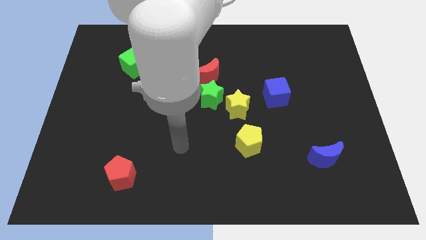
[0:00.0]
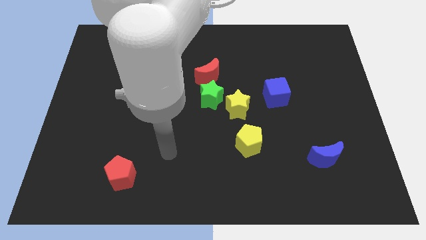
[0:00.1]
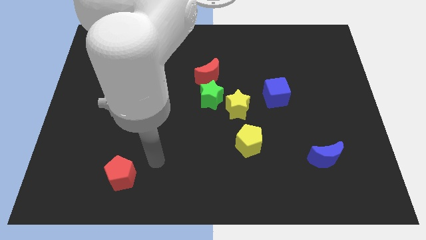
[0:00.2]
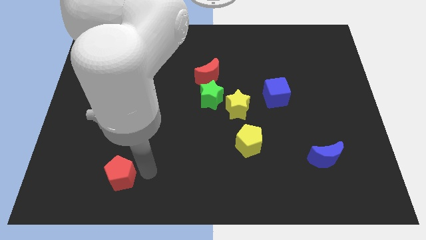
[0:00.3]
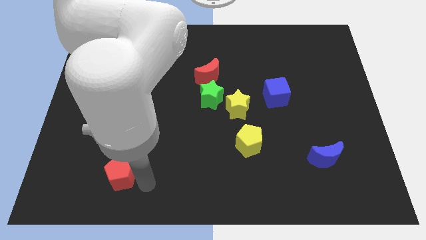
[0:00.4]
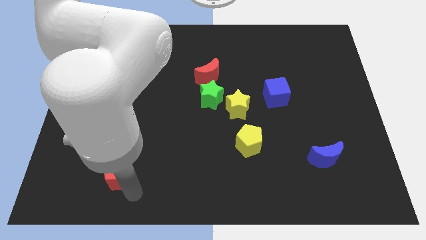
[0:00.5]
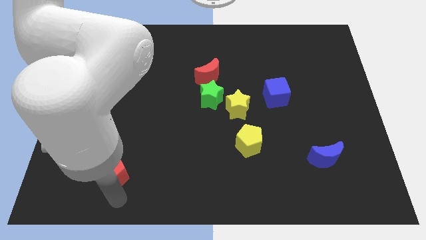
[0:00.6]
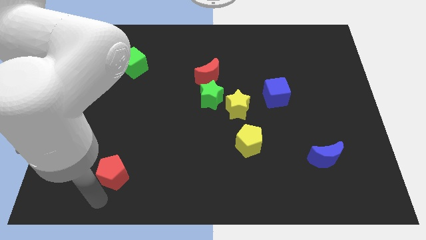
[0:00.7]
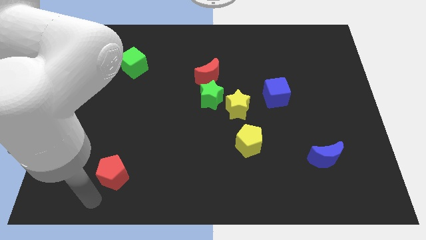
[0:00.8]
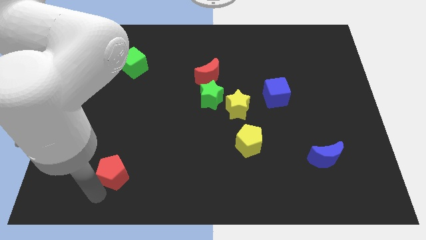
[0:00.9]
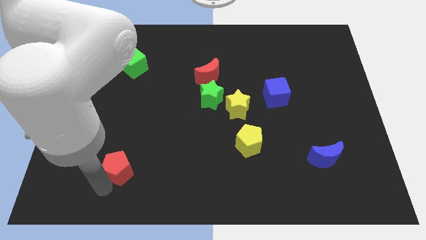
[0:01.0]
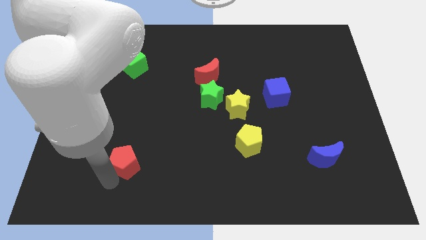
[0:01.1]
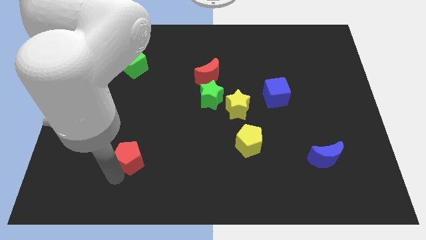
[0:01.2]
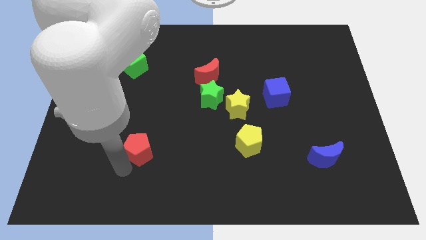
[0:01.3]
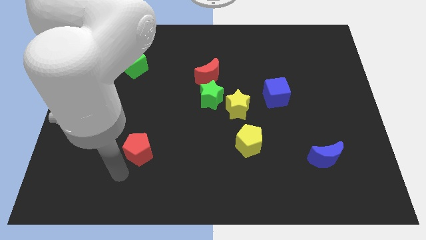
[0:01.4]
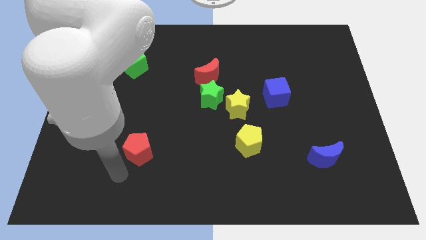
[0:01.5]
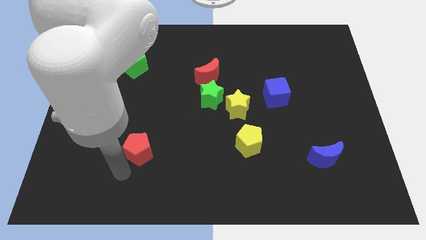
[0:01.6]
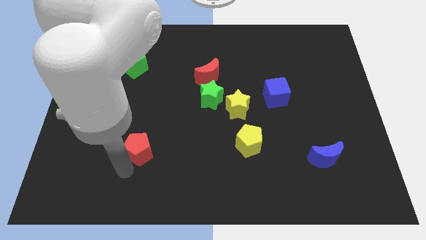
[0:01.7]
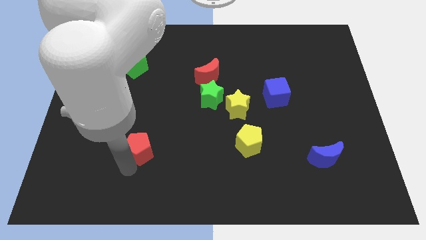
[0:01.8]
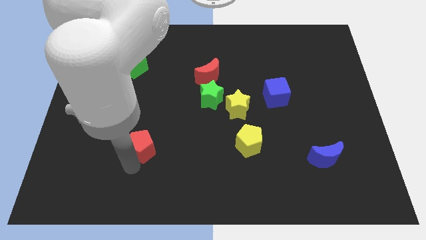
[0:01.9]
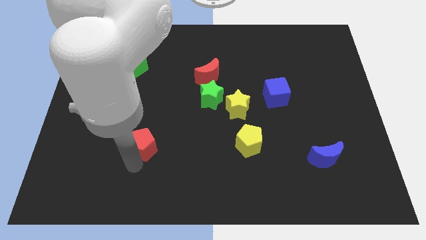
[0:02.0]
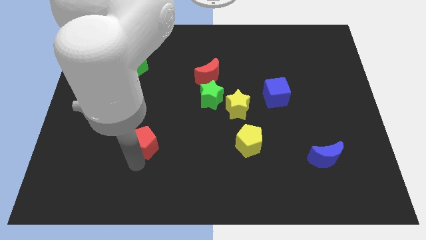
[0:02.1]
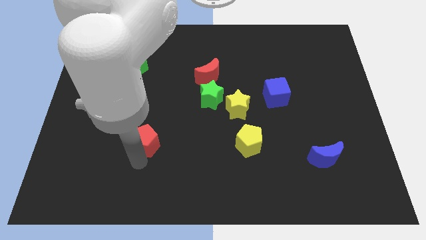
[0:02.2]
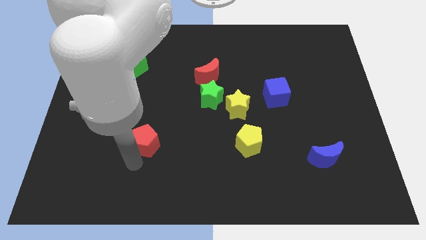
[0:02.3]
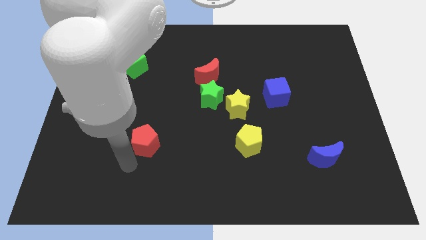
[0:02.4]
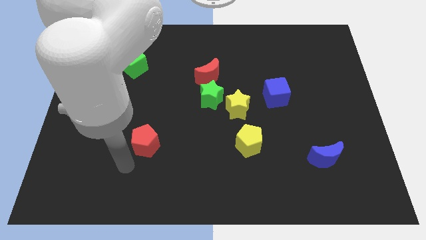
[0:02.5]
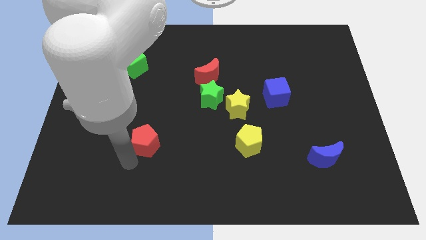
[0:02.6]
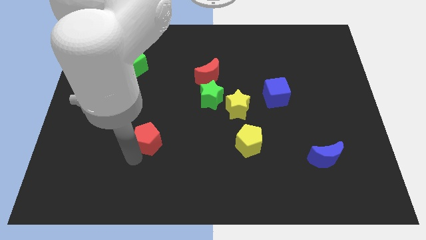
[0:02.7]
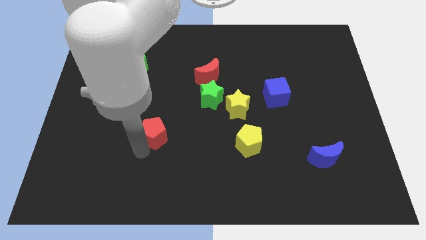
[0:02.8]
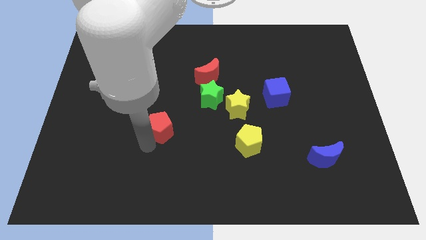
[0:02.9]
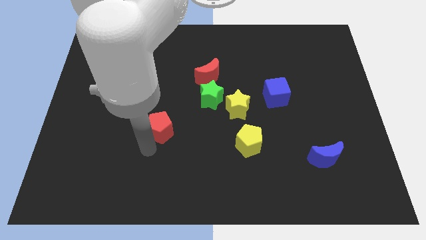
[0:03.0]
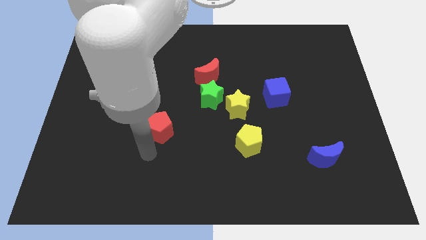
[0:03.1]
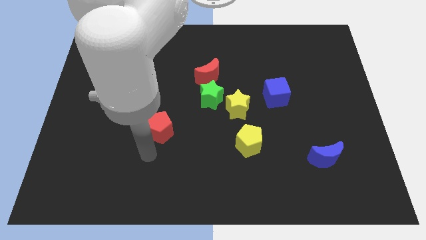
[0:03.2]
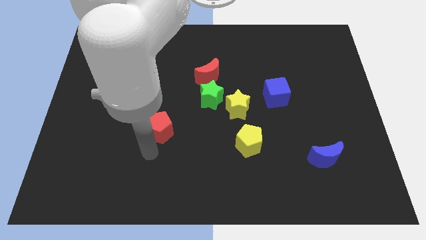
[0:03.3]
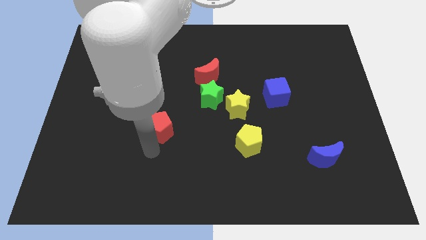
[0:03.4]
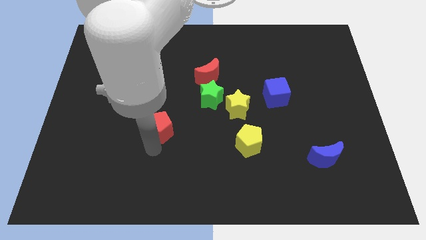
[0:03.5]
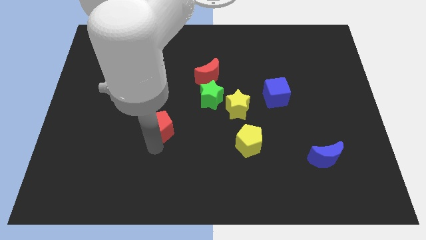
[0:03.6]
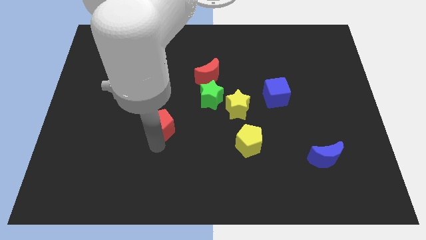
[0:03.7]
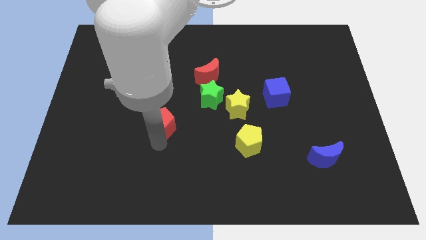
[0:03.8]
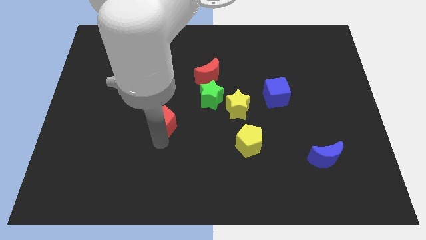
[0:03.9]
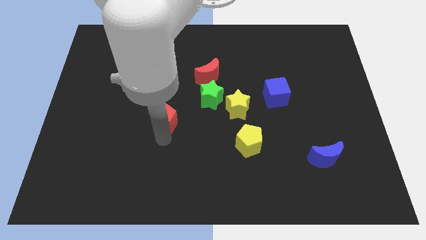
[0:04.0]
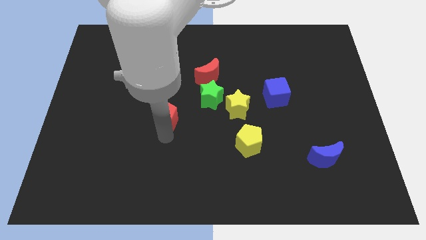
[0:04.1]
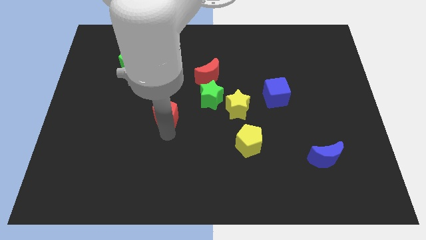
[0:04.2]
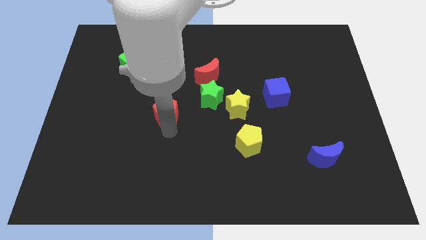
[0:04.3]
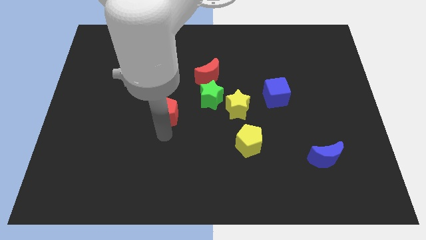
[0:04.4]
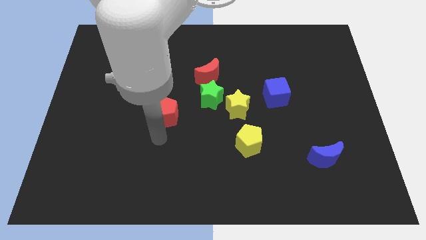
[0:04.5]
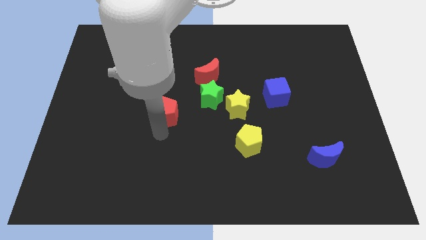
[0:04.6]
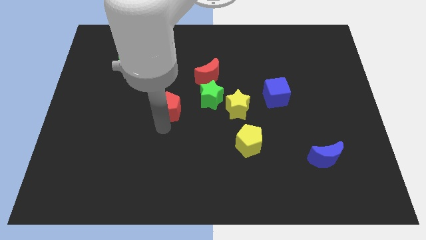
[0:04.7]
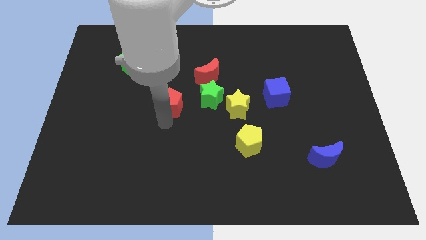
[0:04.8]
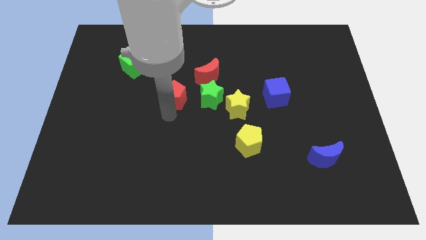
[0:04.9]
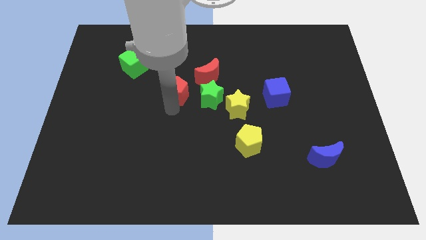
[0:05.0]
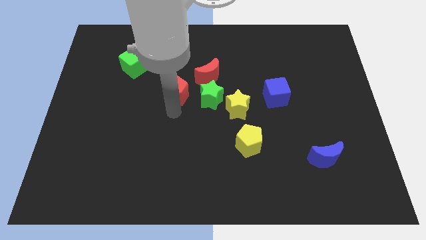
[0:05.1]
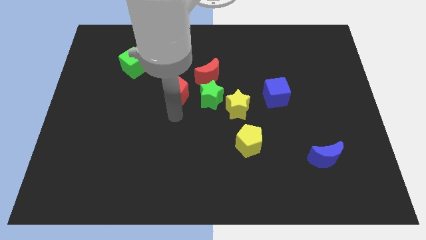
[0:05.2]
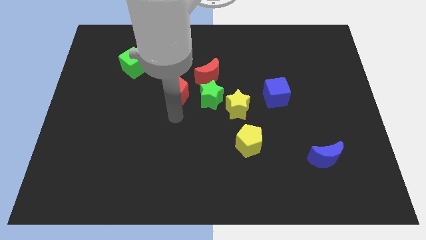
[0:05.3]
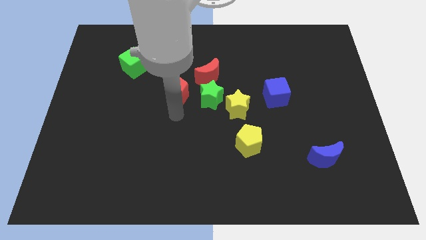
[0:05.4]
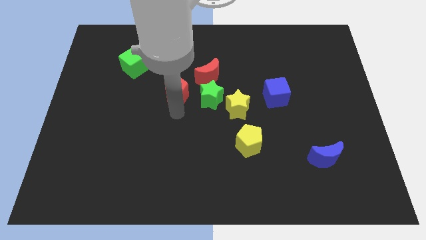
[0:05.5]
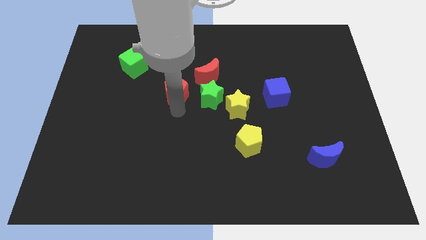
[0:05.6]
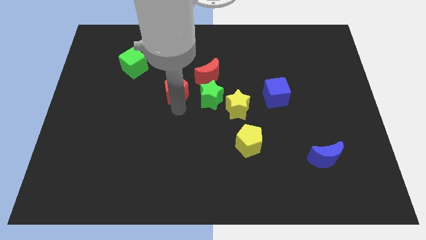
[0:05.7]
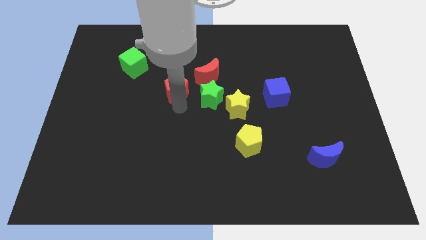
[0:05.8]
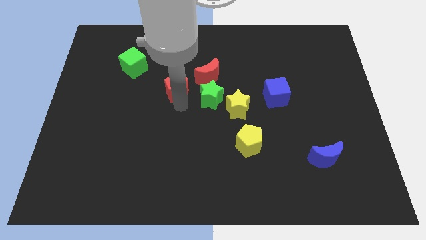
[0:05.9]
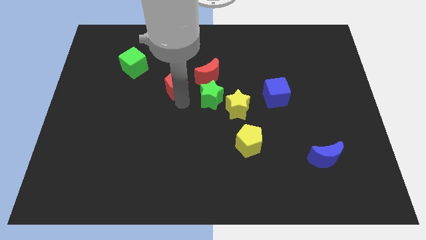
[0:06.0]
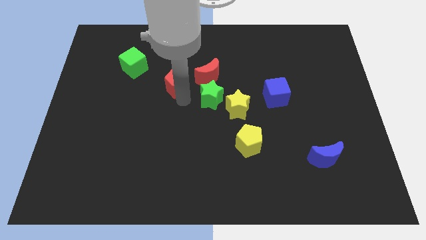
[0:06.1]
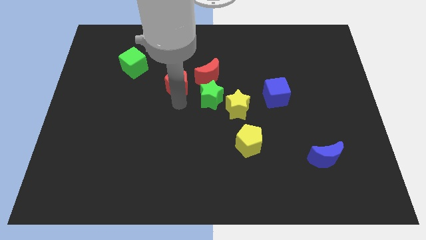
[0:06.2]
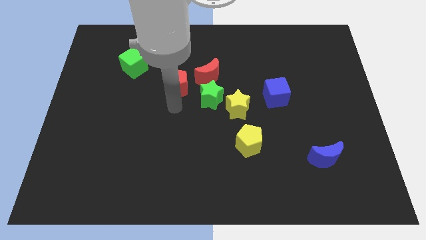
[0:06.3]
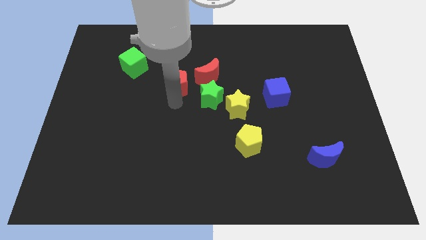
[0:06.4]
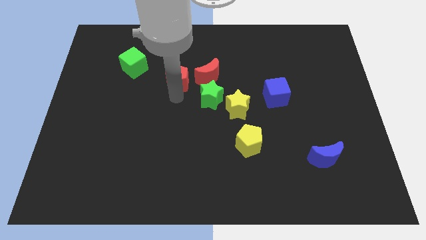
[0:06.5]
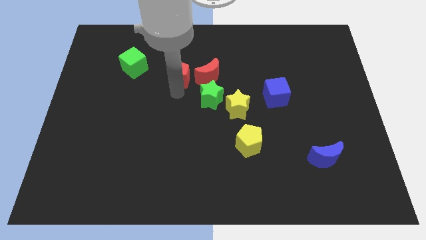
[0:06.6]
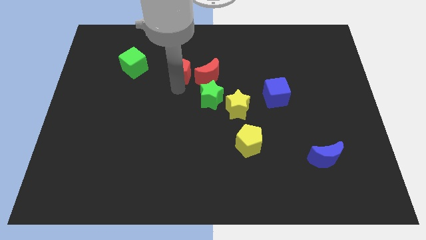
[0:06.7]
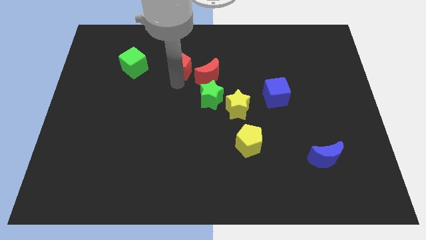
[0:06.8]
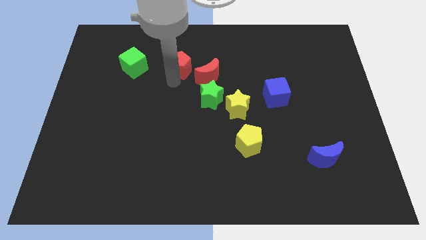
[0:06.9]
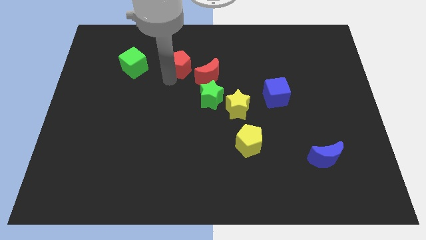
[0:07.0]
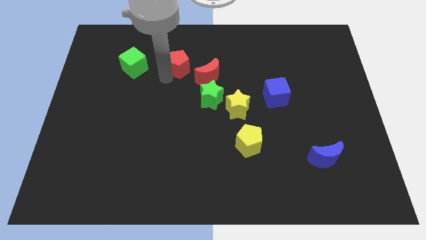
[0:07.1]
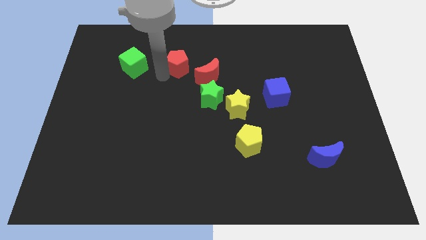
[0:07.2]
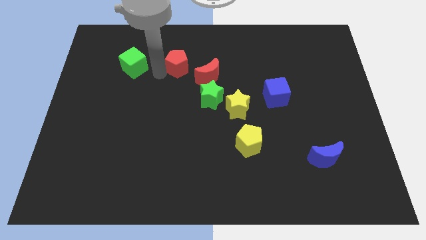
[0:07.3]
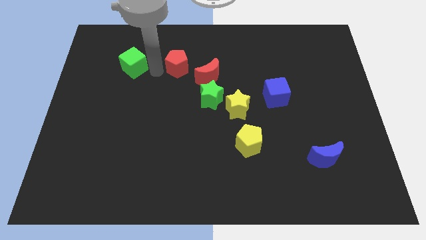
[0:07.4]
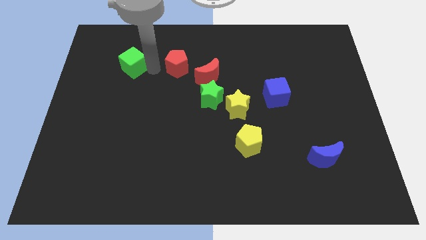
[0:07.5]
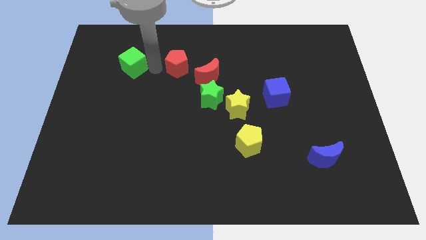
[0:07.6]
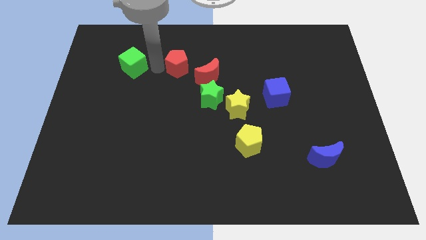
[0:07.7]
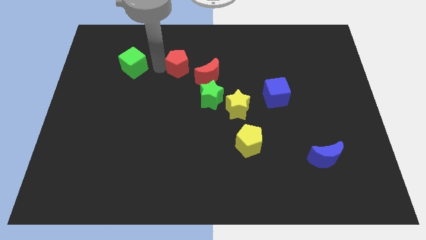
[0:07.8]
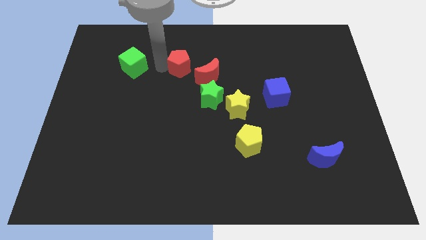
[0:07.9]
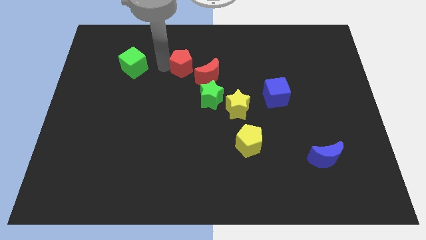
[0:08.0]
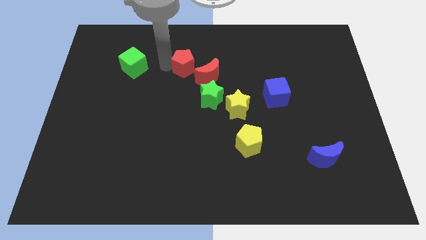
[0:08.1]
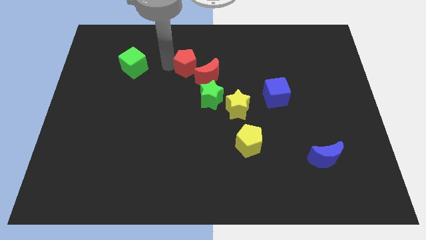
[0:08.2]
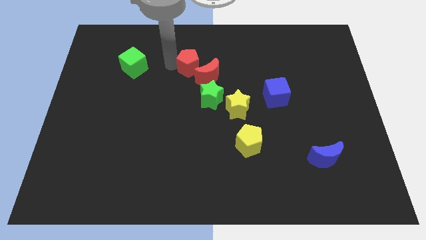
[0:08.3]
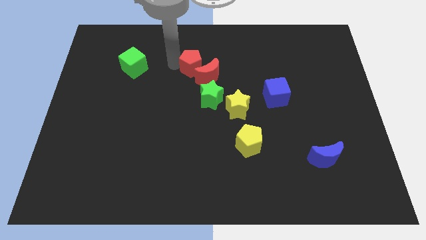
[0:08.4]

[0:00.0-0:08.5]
put the red pentagon above the green star
